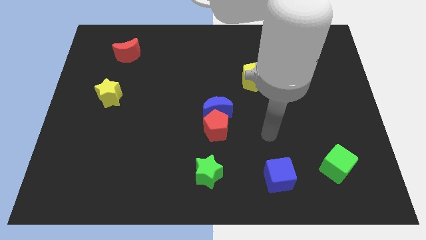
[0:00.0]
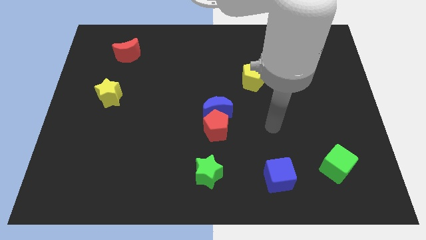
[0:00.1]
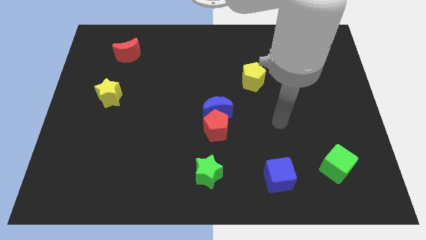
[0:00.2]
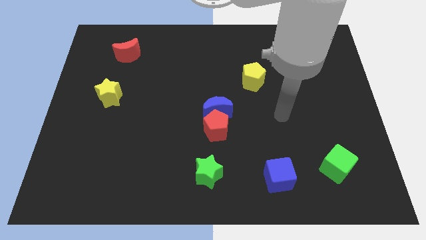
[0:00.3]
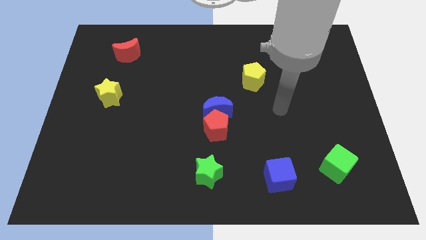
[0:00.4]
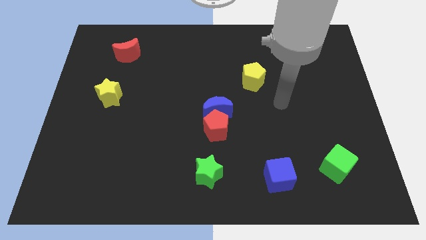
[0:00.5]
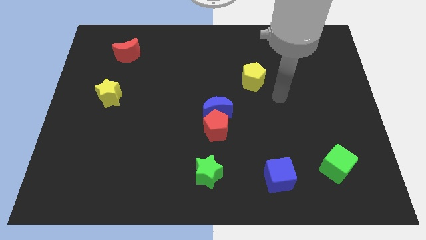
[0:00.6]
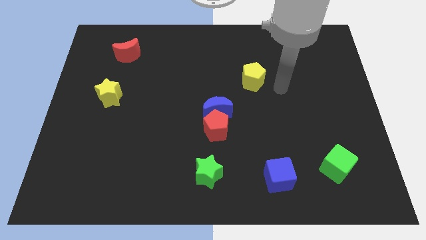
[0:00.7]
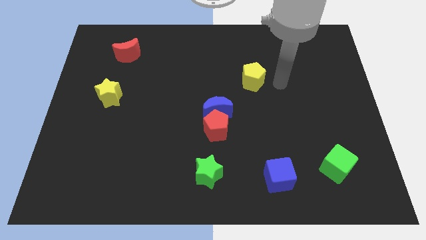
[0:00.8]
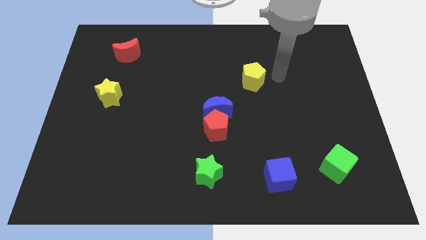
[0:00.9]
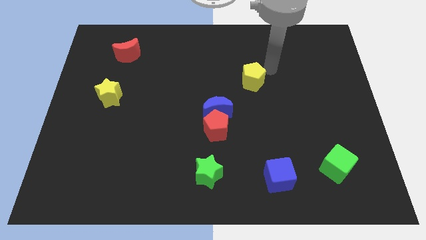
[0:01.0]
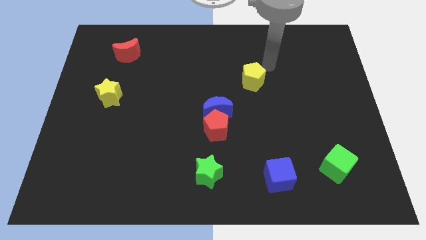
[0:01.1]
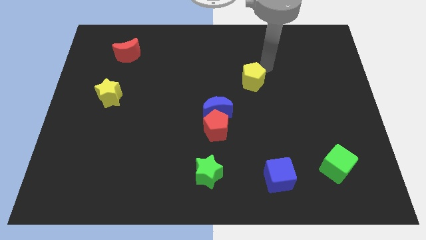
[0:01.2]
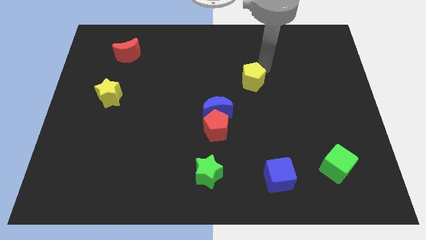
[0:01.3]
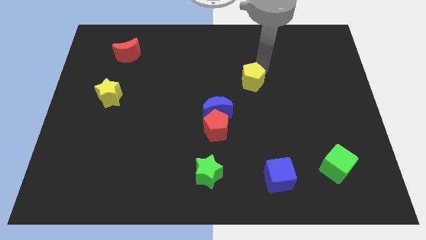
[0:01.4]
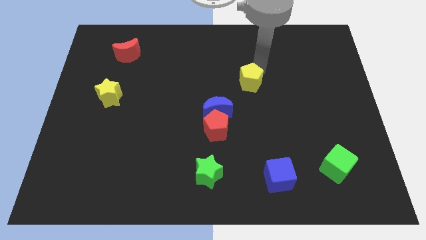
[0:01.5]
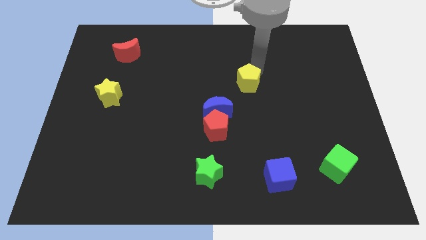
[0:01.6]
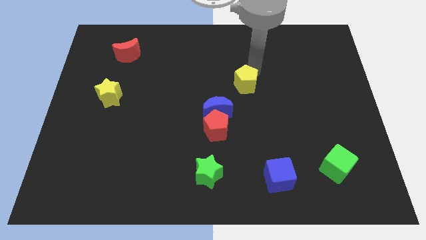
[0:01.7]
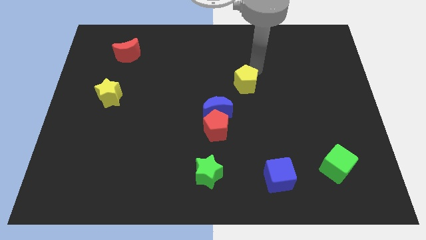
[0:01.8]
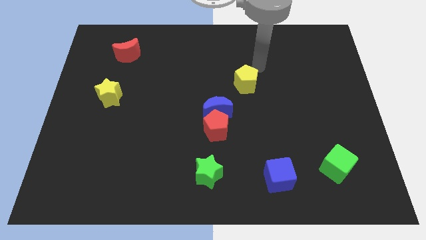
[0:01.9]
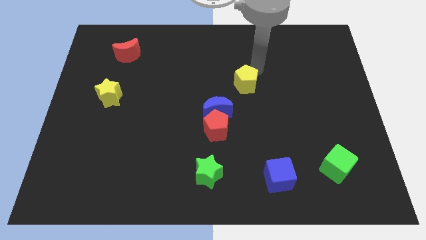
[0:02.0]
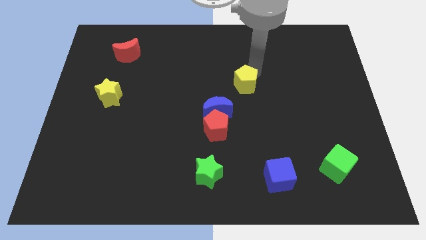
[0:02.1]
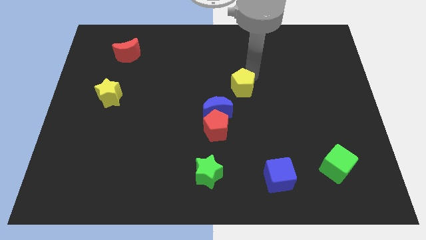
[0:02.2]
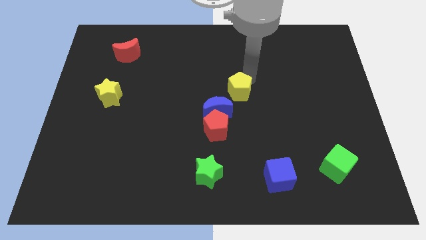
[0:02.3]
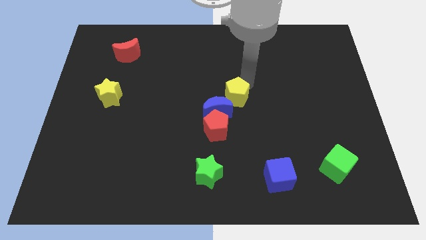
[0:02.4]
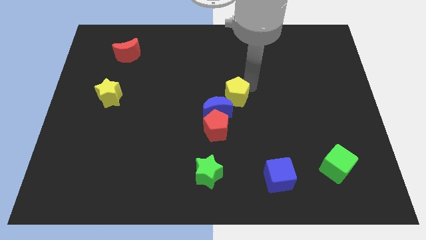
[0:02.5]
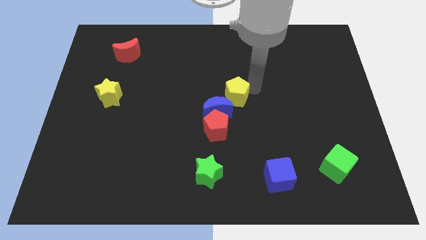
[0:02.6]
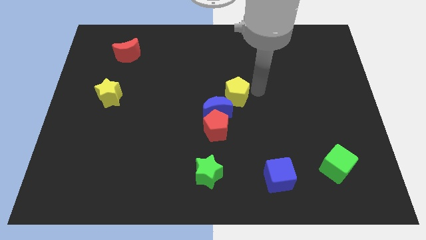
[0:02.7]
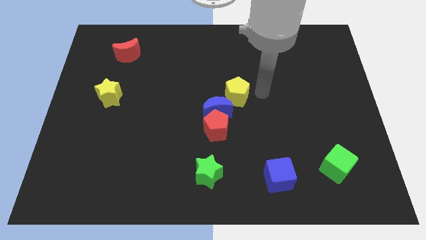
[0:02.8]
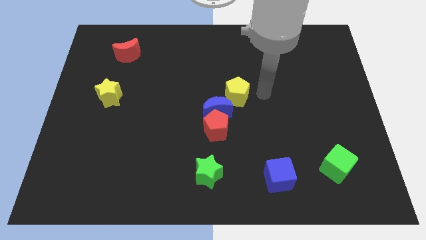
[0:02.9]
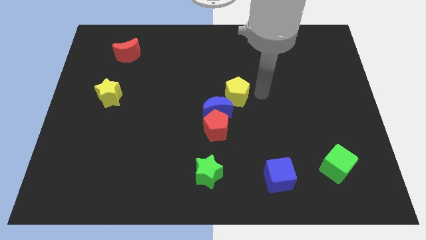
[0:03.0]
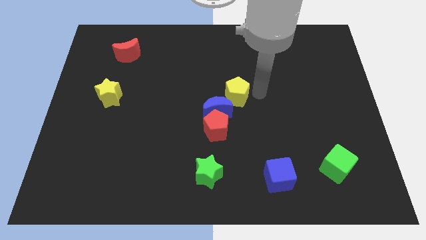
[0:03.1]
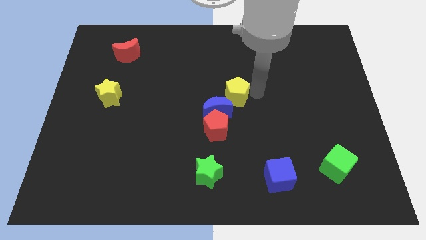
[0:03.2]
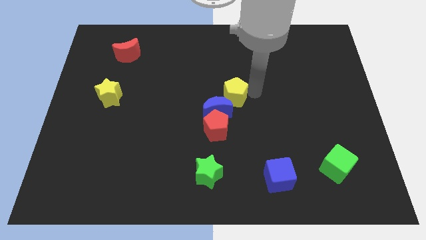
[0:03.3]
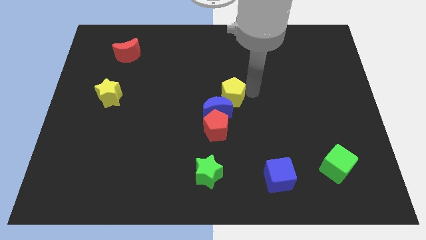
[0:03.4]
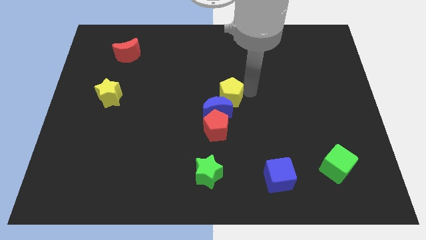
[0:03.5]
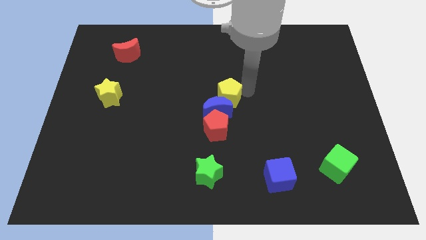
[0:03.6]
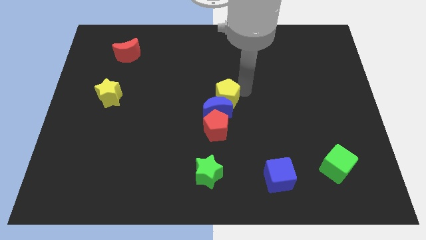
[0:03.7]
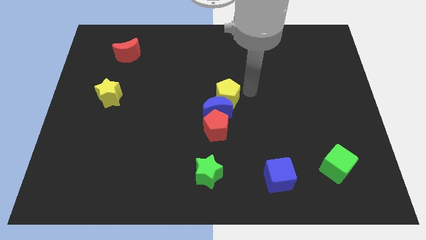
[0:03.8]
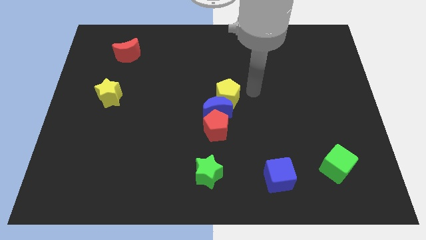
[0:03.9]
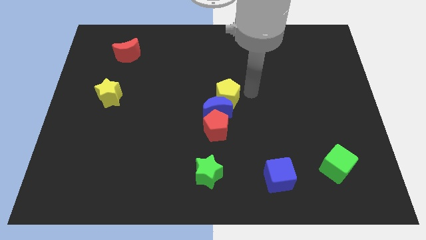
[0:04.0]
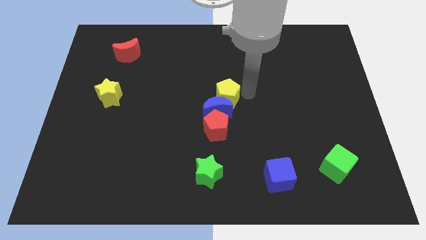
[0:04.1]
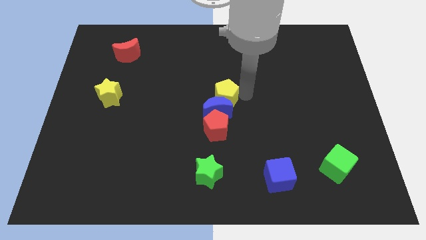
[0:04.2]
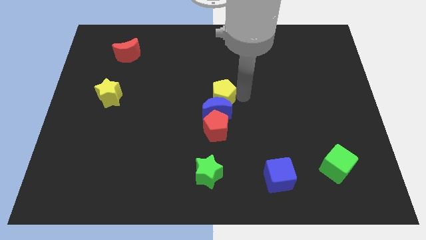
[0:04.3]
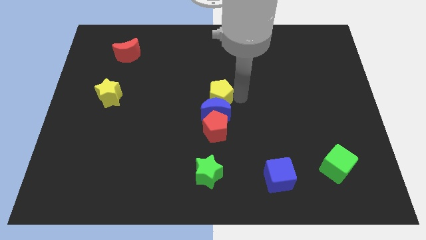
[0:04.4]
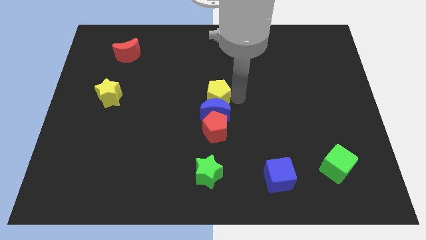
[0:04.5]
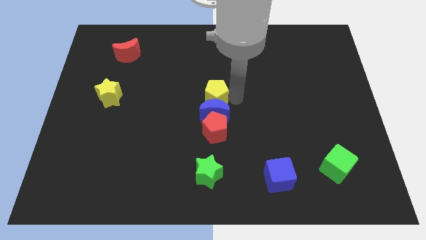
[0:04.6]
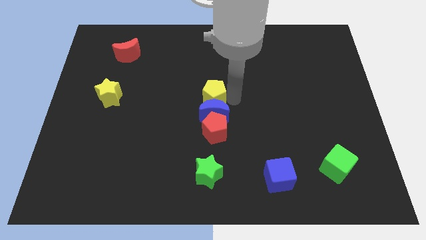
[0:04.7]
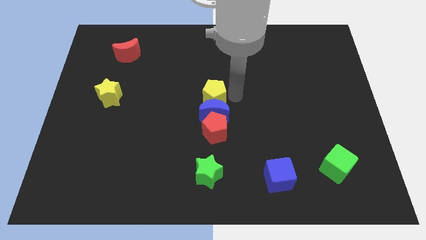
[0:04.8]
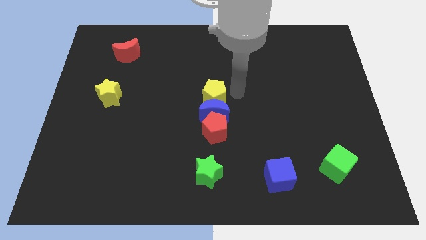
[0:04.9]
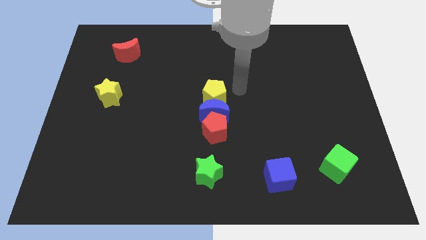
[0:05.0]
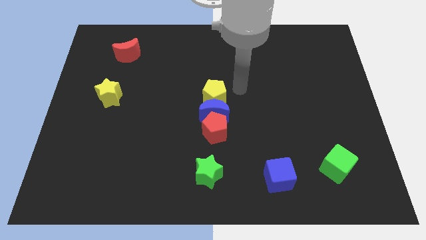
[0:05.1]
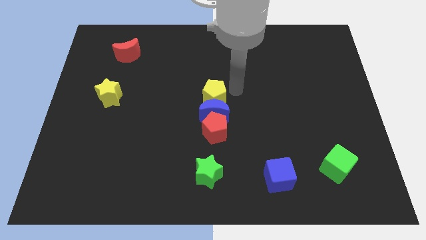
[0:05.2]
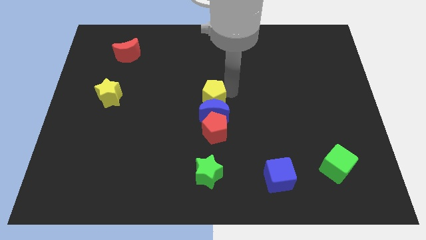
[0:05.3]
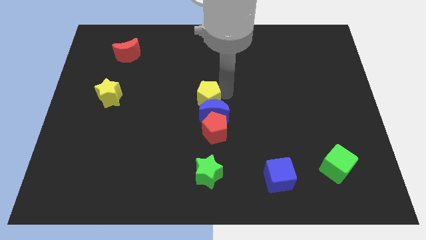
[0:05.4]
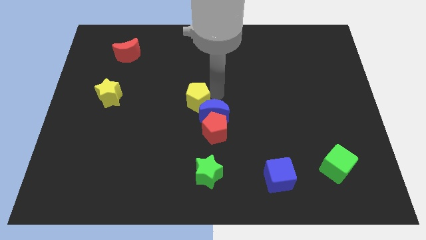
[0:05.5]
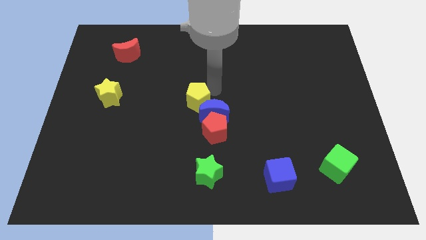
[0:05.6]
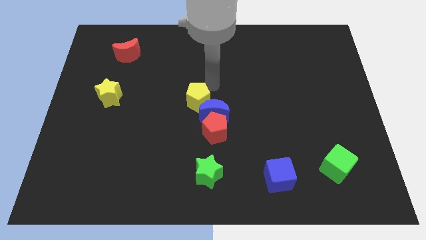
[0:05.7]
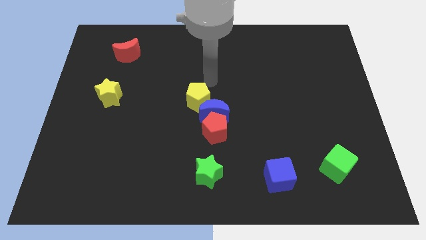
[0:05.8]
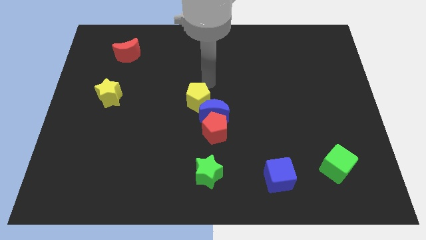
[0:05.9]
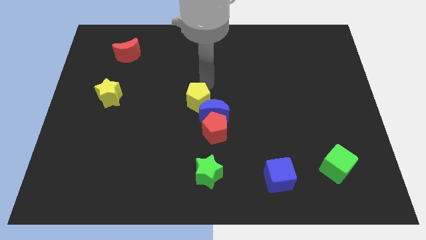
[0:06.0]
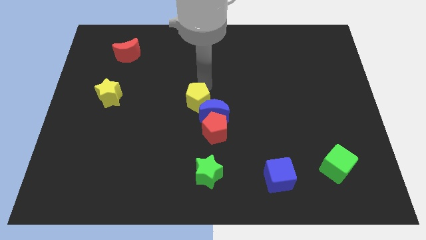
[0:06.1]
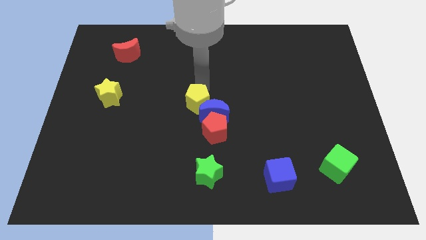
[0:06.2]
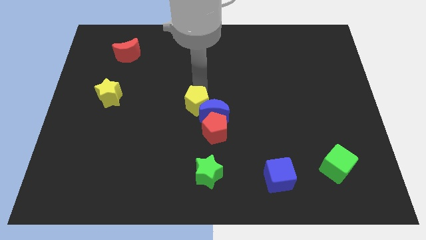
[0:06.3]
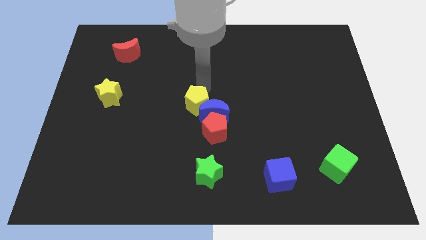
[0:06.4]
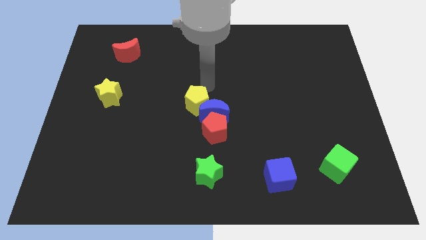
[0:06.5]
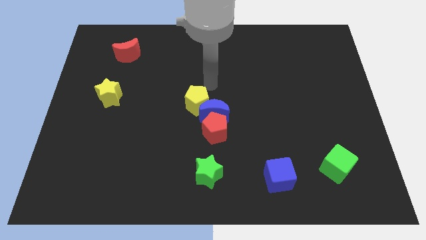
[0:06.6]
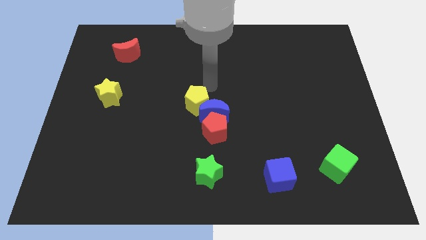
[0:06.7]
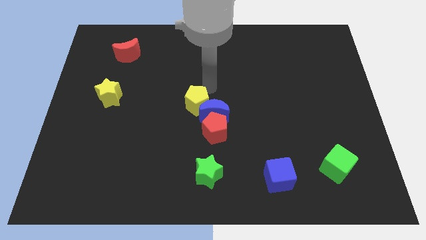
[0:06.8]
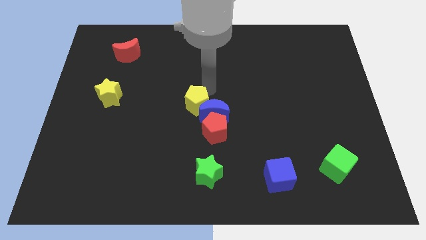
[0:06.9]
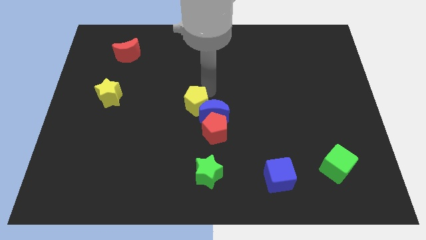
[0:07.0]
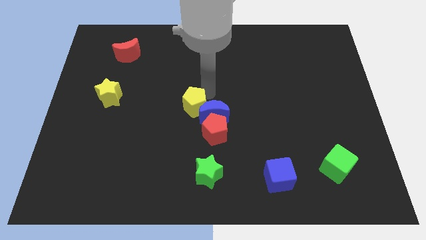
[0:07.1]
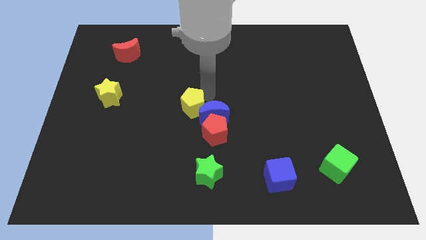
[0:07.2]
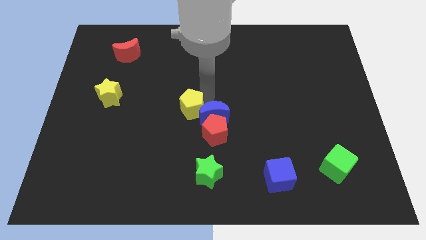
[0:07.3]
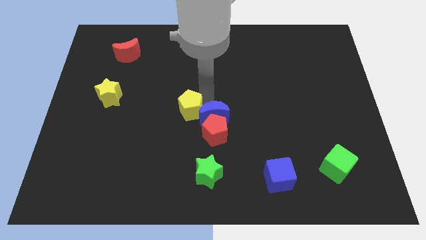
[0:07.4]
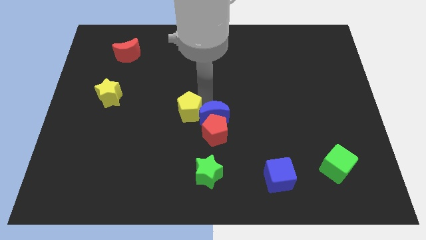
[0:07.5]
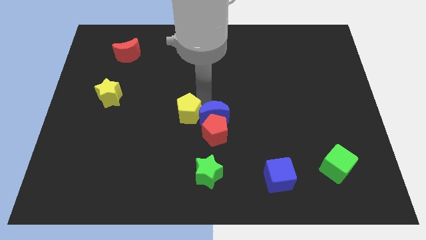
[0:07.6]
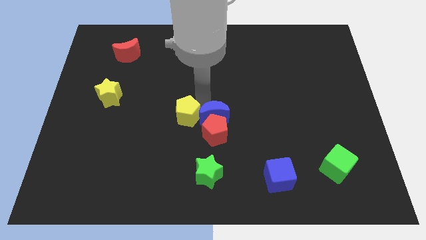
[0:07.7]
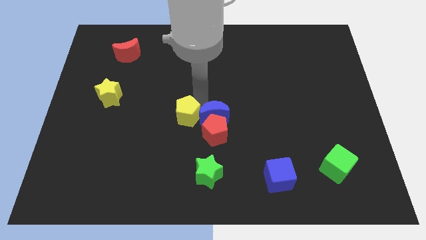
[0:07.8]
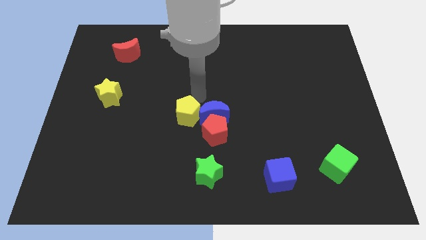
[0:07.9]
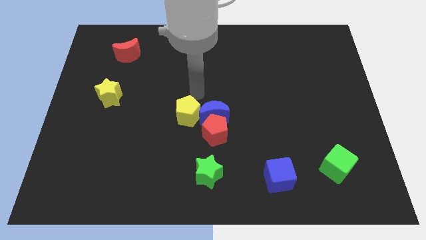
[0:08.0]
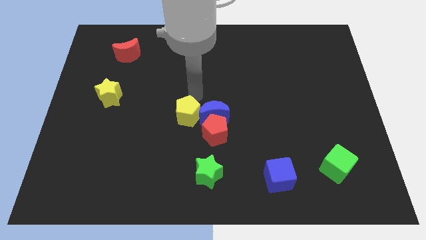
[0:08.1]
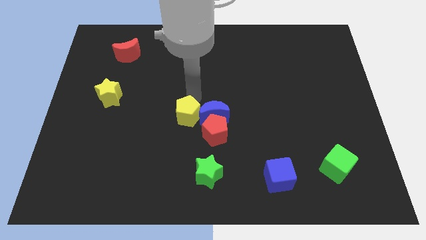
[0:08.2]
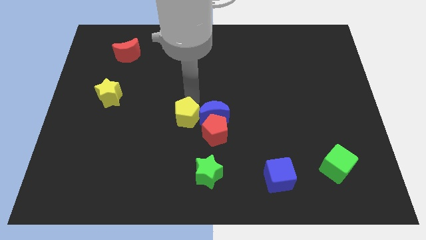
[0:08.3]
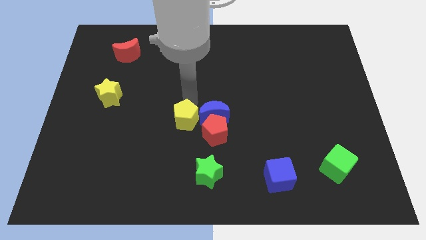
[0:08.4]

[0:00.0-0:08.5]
slide the yellow pentagon down and left
